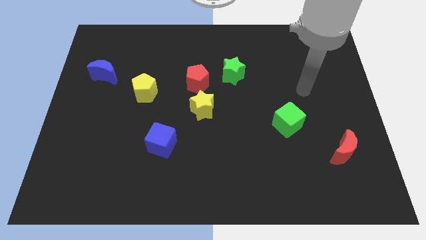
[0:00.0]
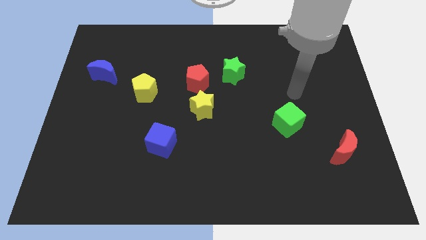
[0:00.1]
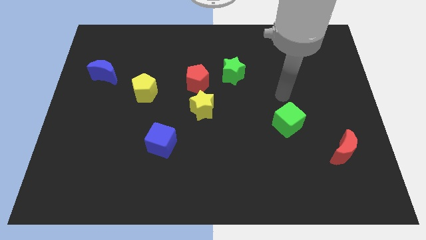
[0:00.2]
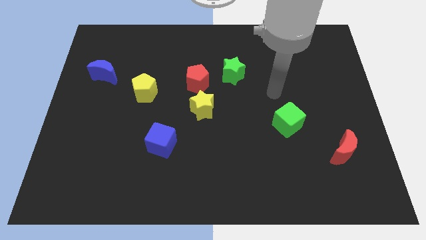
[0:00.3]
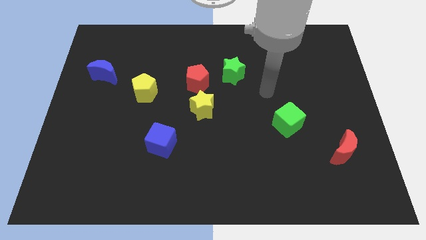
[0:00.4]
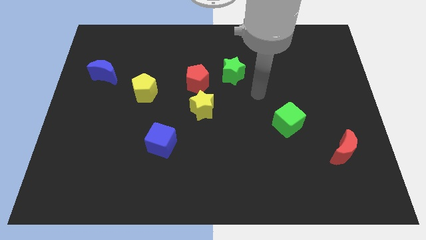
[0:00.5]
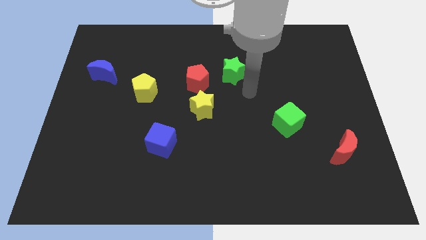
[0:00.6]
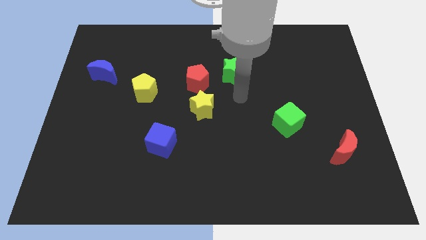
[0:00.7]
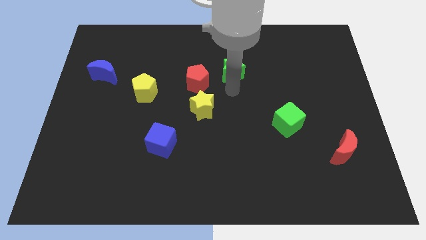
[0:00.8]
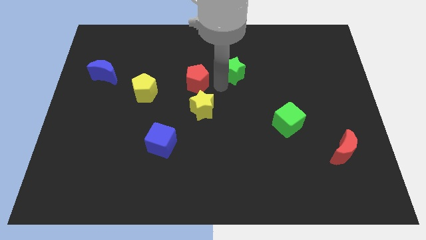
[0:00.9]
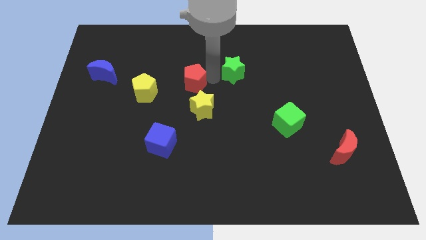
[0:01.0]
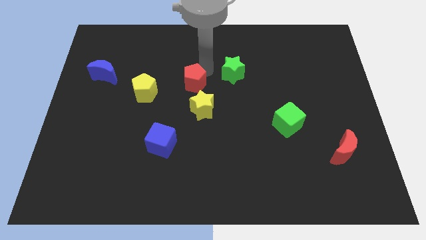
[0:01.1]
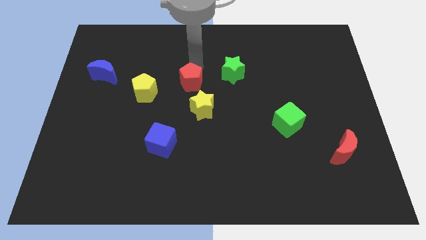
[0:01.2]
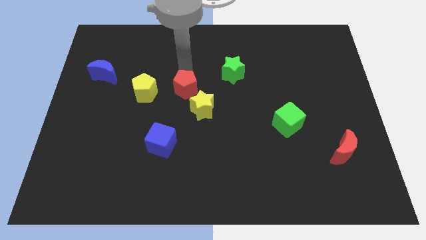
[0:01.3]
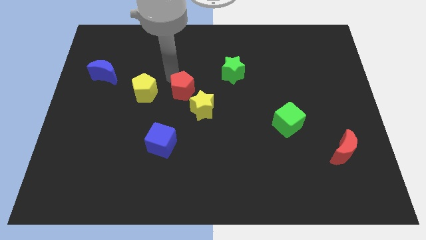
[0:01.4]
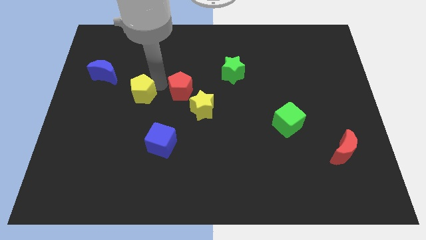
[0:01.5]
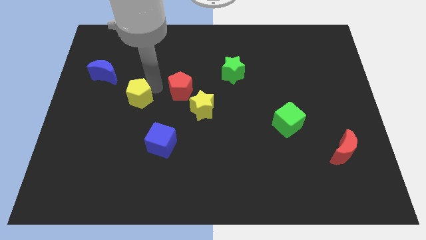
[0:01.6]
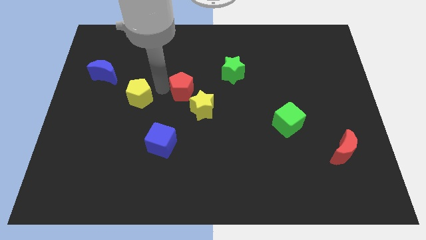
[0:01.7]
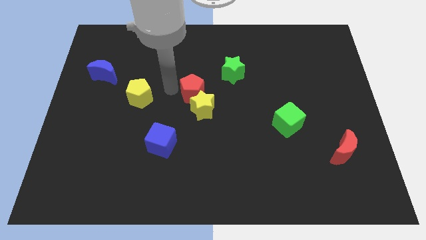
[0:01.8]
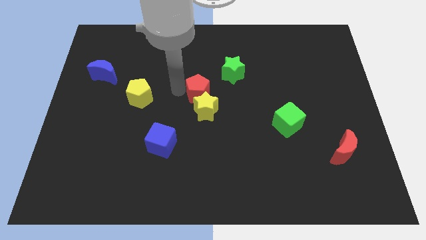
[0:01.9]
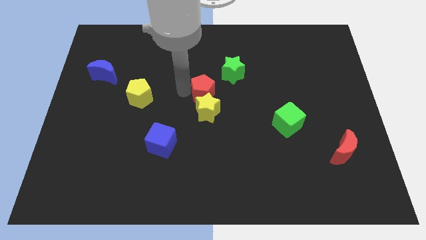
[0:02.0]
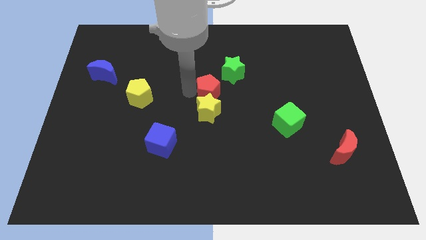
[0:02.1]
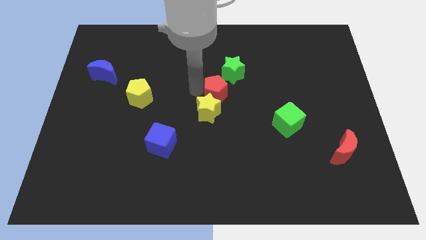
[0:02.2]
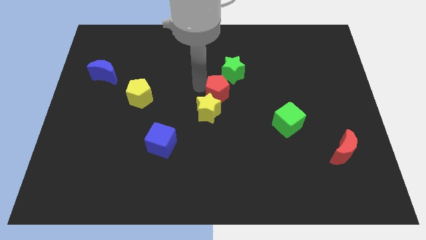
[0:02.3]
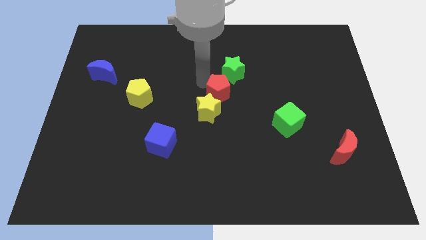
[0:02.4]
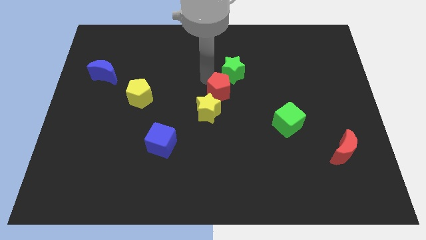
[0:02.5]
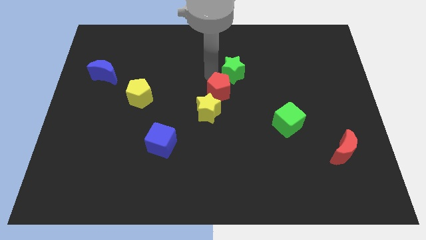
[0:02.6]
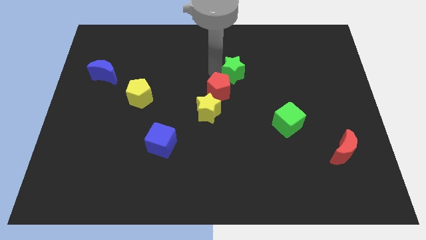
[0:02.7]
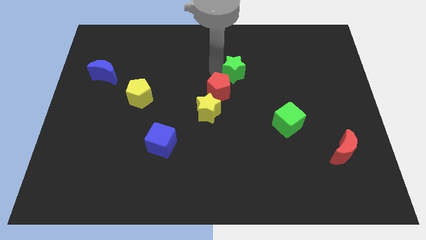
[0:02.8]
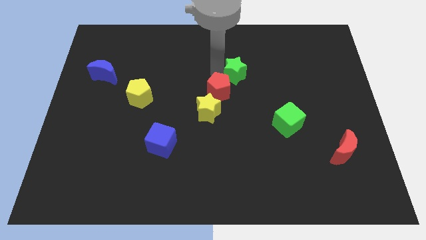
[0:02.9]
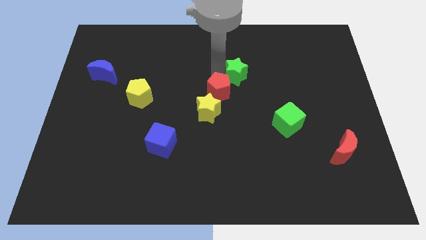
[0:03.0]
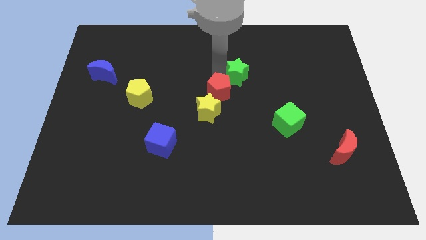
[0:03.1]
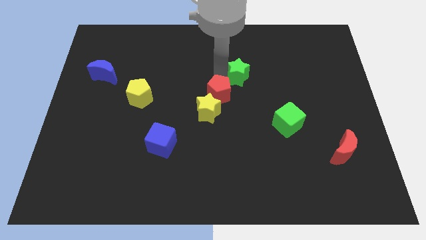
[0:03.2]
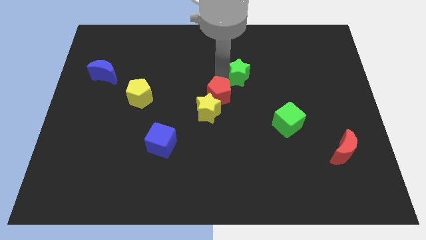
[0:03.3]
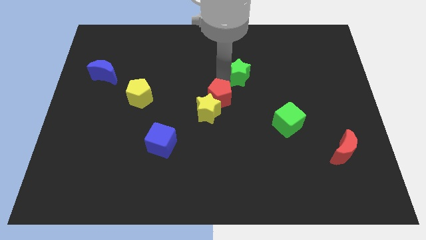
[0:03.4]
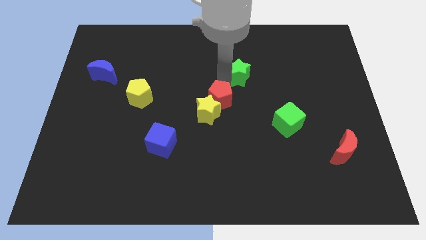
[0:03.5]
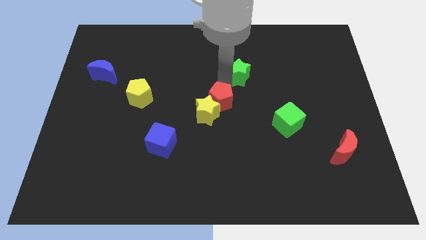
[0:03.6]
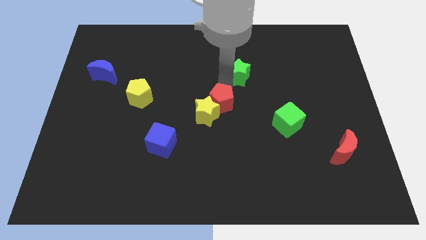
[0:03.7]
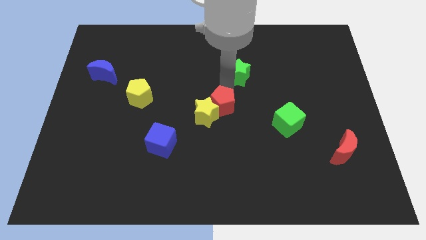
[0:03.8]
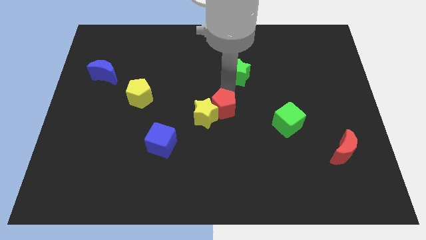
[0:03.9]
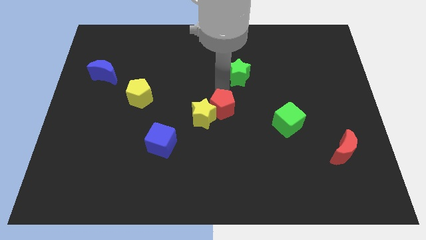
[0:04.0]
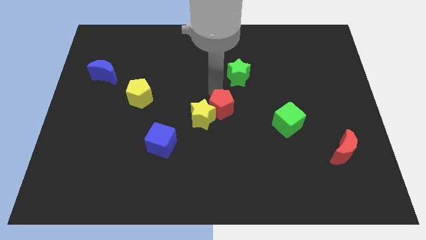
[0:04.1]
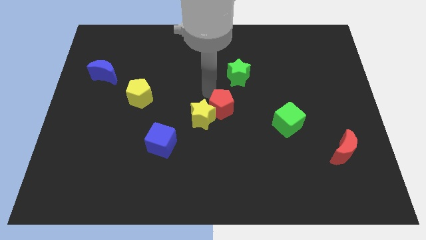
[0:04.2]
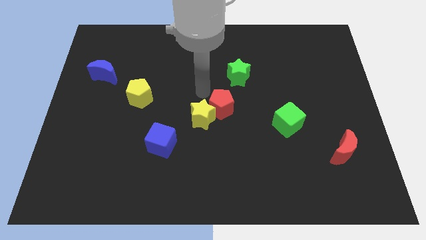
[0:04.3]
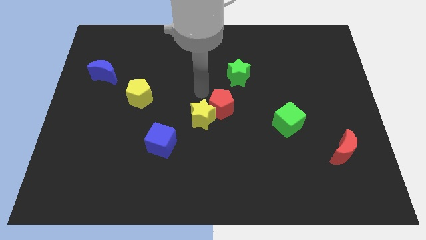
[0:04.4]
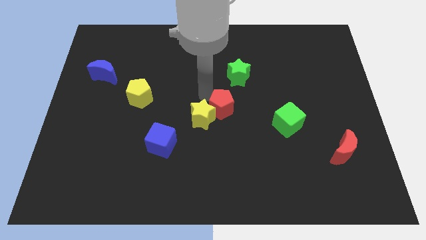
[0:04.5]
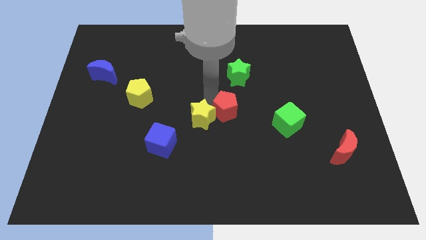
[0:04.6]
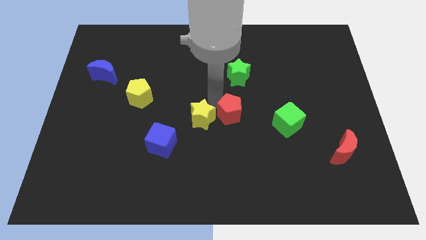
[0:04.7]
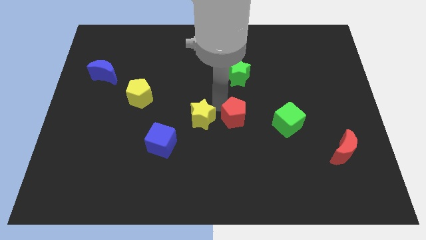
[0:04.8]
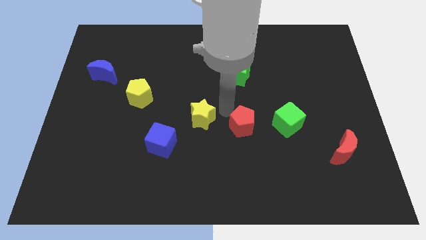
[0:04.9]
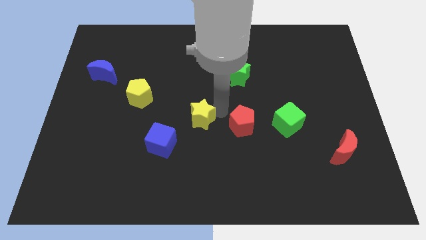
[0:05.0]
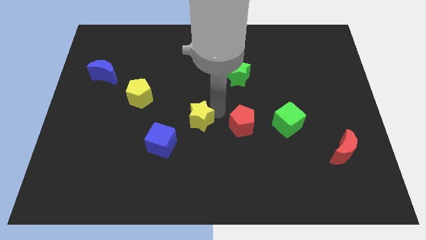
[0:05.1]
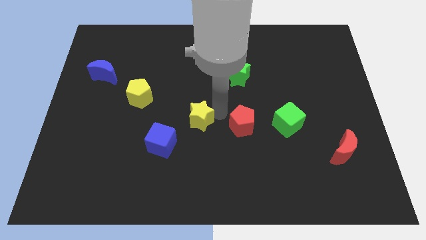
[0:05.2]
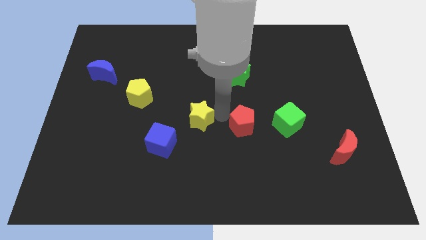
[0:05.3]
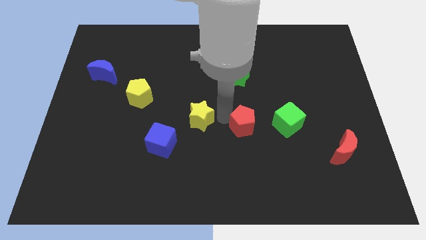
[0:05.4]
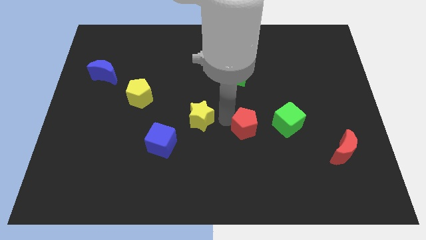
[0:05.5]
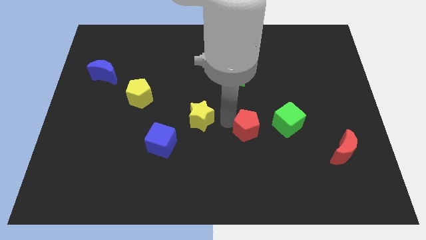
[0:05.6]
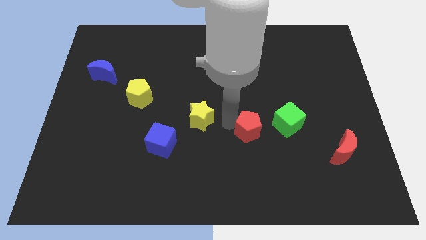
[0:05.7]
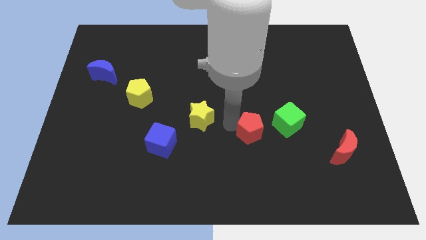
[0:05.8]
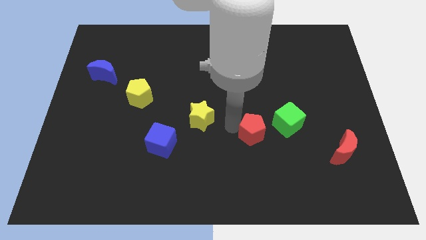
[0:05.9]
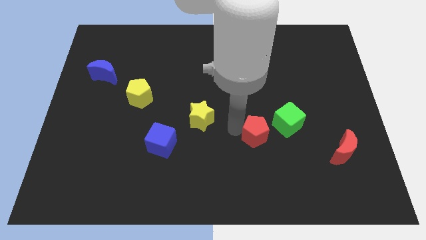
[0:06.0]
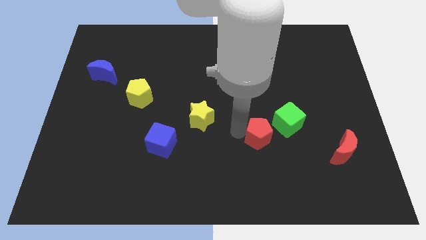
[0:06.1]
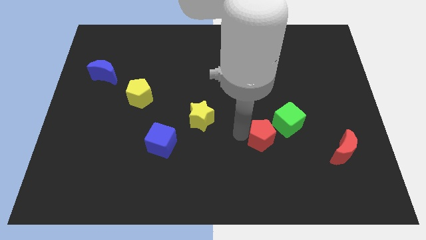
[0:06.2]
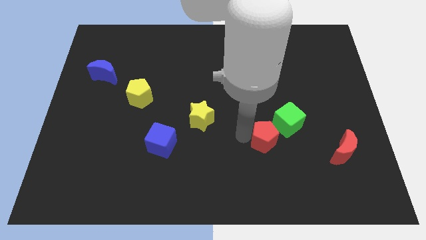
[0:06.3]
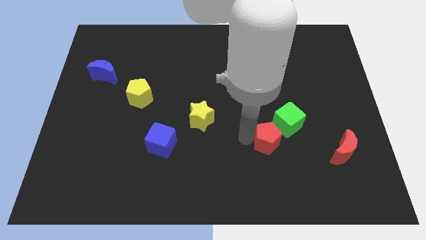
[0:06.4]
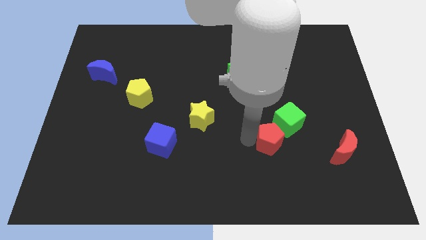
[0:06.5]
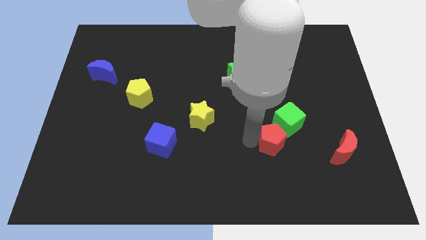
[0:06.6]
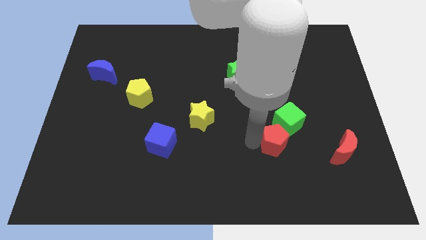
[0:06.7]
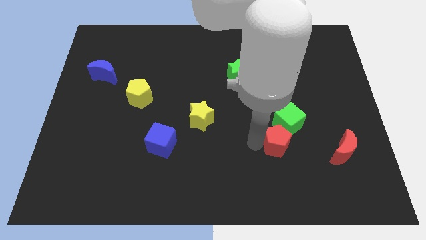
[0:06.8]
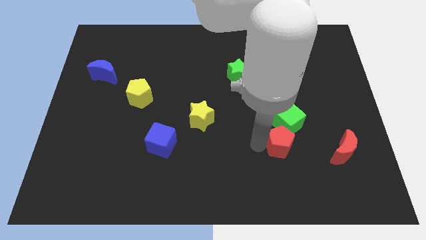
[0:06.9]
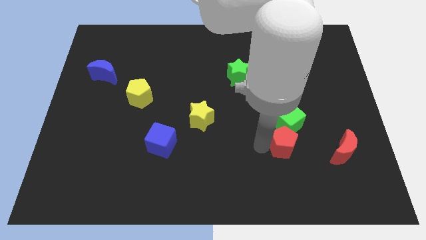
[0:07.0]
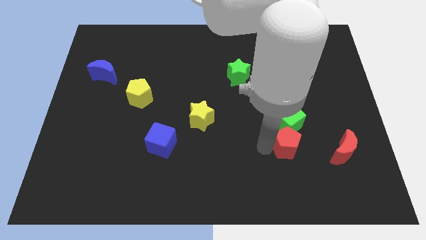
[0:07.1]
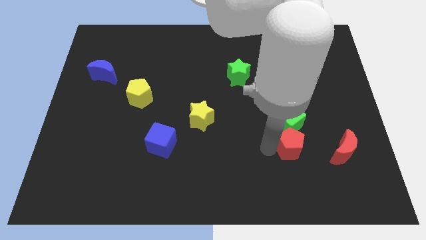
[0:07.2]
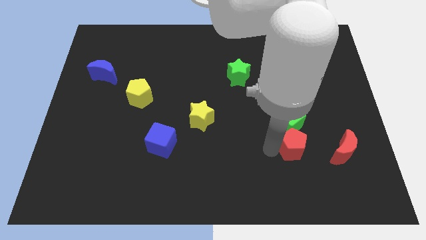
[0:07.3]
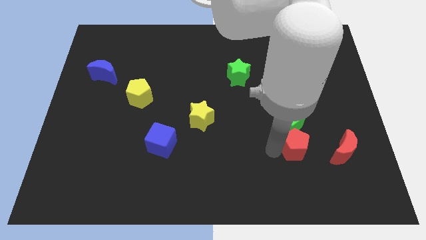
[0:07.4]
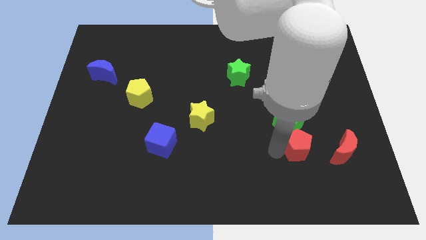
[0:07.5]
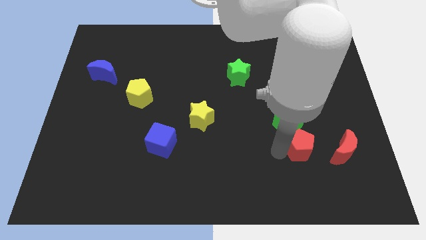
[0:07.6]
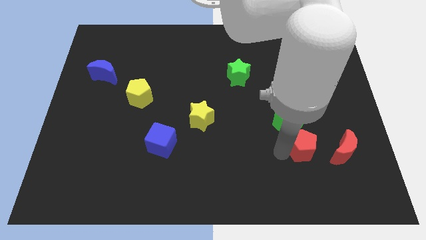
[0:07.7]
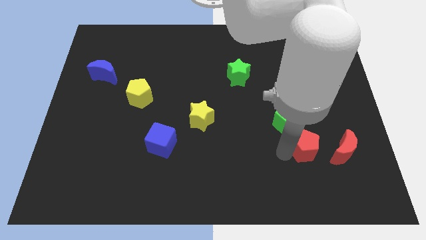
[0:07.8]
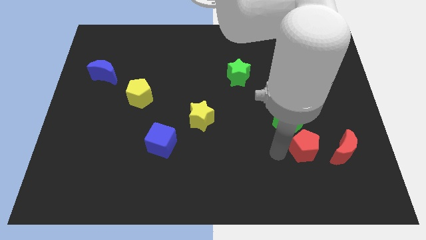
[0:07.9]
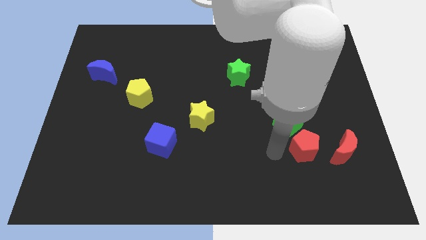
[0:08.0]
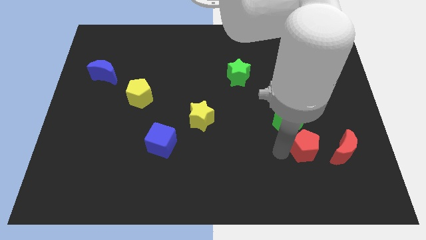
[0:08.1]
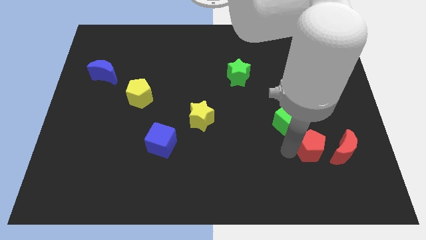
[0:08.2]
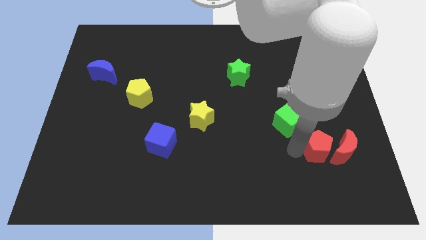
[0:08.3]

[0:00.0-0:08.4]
push the red pentagon towards the red moon
